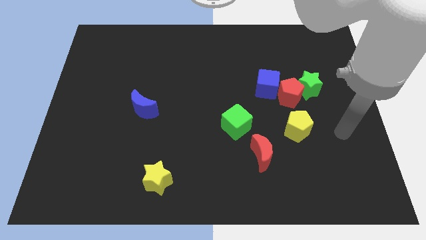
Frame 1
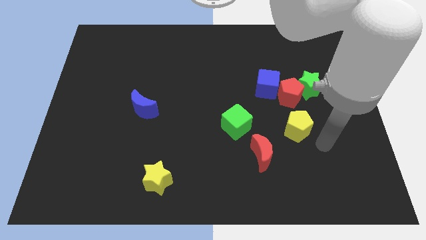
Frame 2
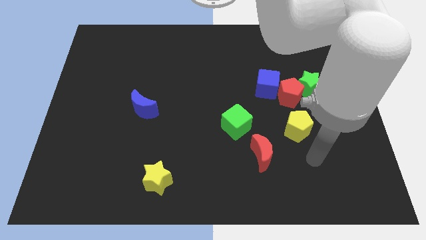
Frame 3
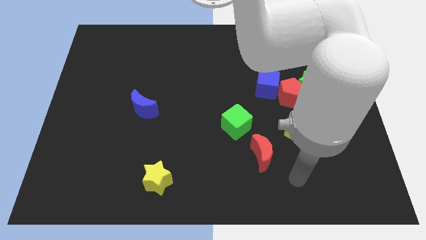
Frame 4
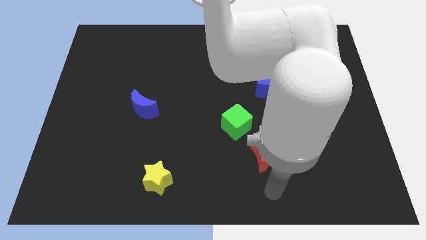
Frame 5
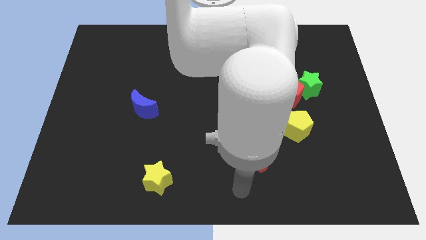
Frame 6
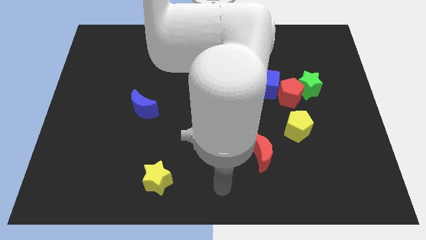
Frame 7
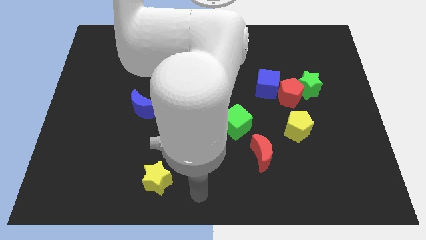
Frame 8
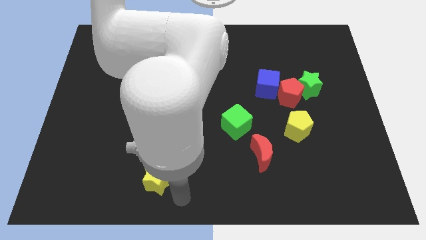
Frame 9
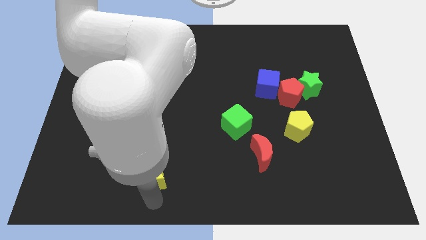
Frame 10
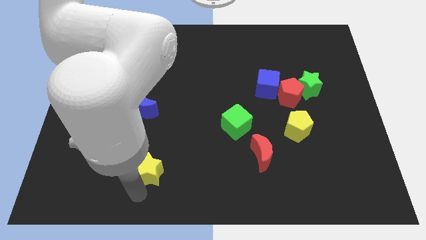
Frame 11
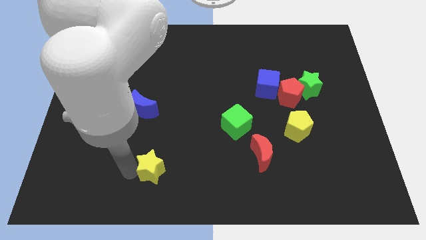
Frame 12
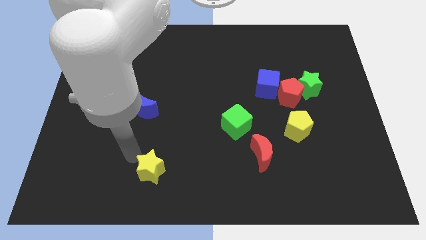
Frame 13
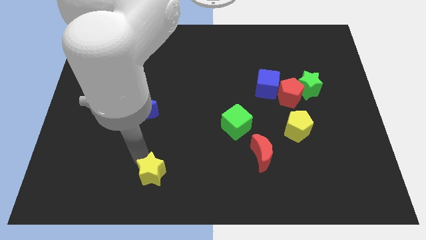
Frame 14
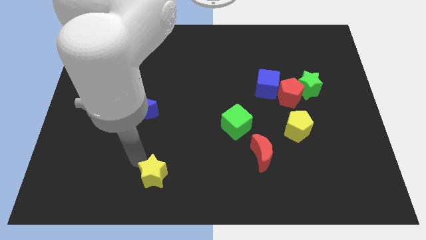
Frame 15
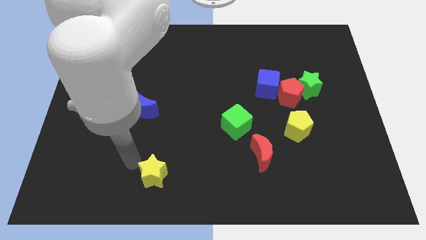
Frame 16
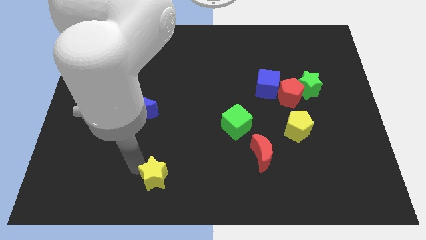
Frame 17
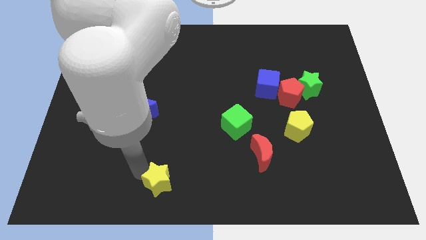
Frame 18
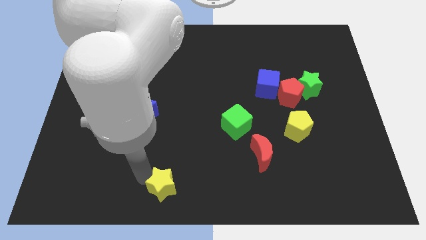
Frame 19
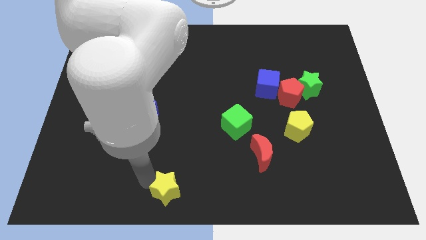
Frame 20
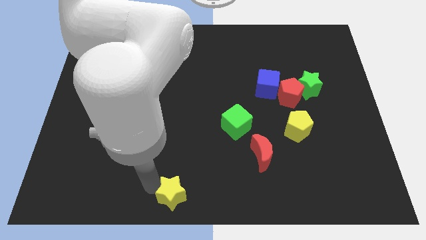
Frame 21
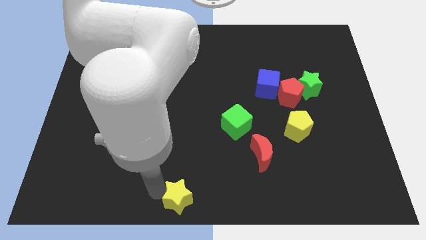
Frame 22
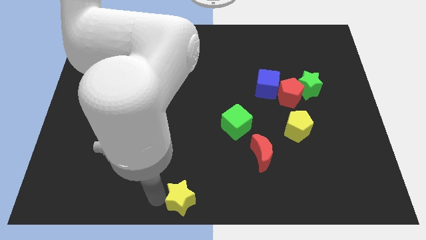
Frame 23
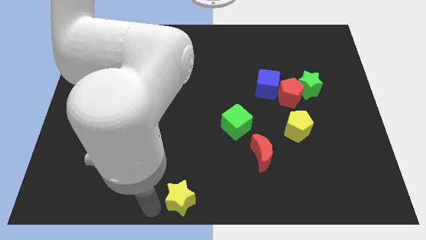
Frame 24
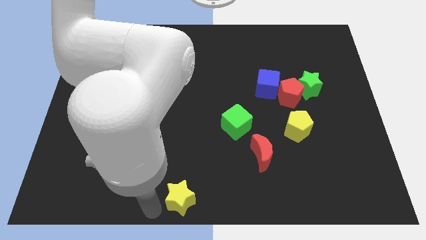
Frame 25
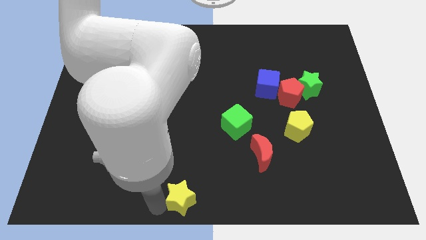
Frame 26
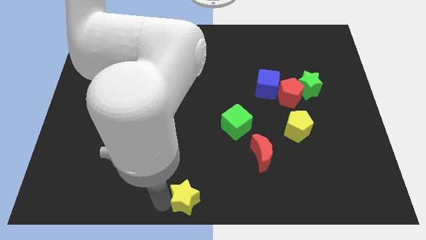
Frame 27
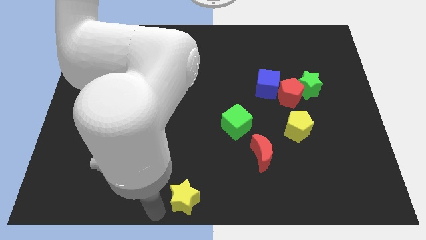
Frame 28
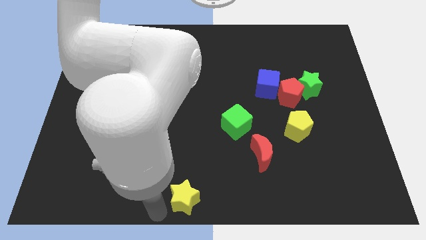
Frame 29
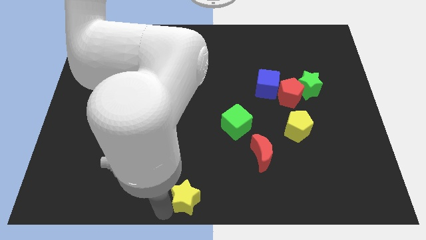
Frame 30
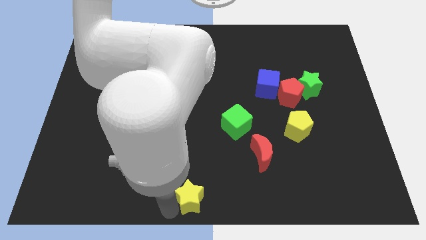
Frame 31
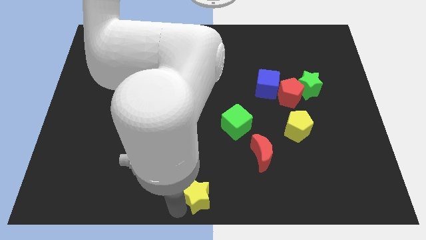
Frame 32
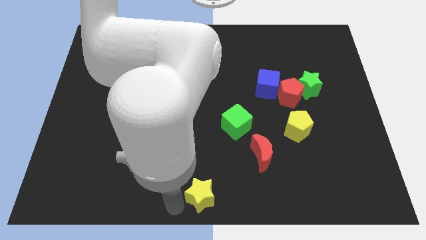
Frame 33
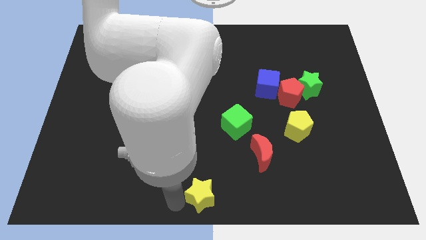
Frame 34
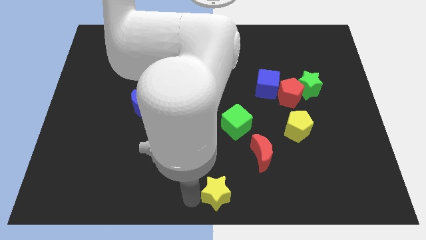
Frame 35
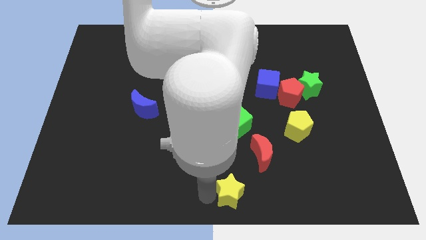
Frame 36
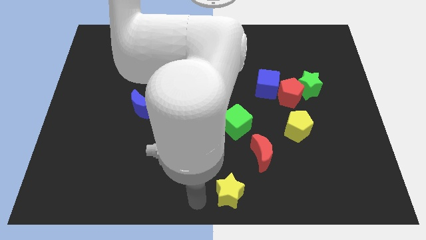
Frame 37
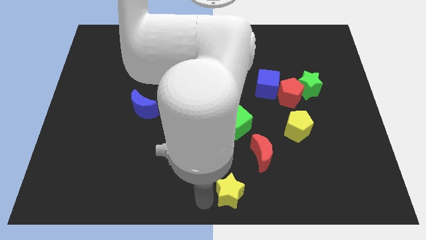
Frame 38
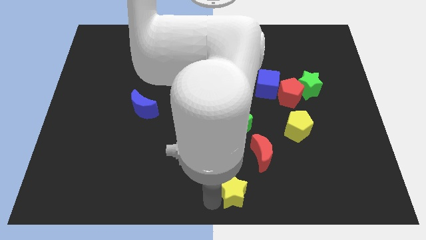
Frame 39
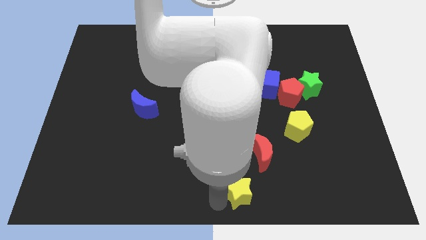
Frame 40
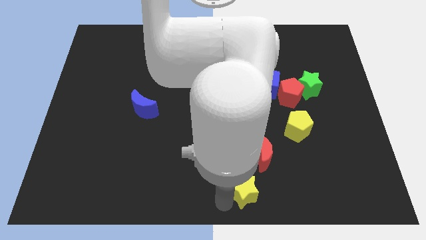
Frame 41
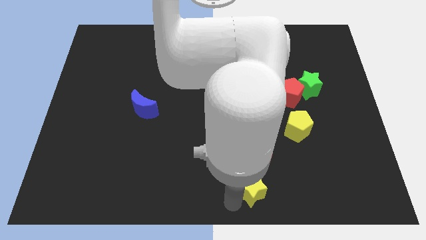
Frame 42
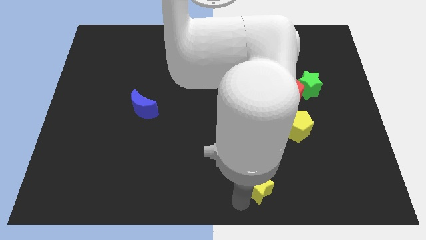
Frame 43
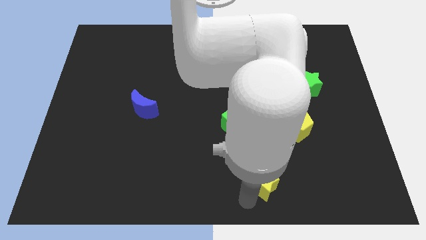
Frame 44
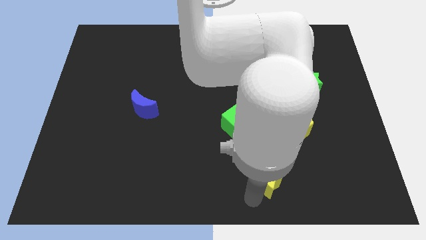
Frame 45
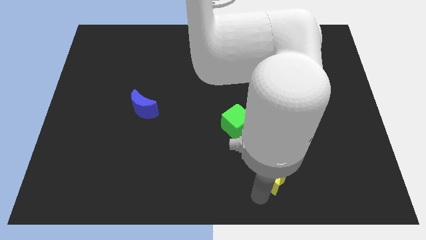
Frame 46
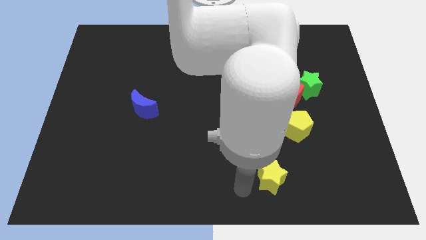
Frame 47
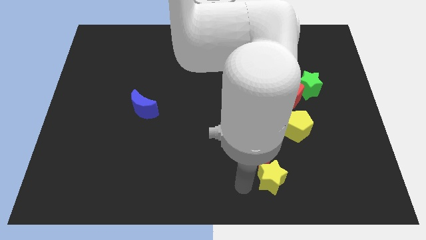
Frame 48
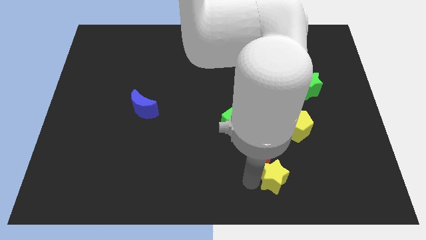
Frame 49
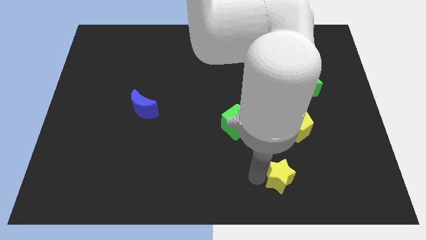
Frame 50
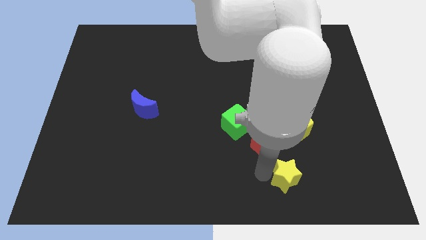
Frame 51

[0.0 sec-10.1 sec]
put the yellow star below the yellow pentagon

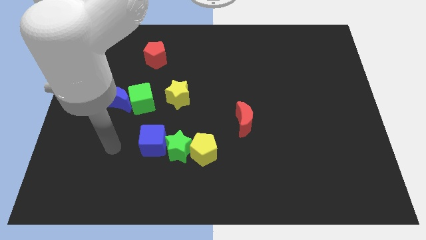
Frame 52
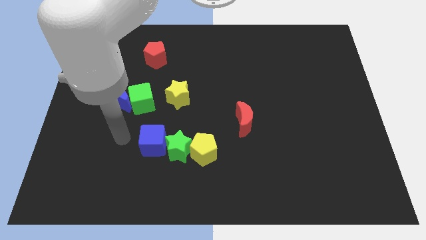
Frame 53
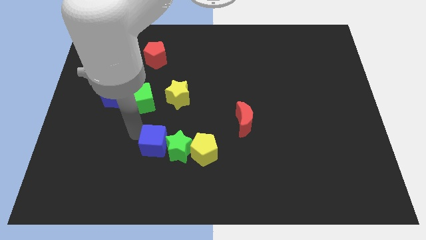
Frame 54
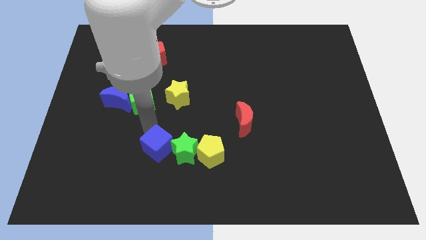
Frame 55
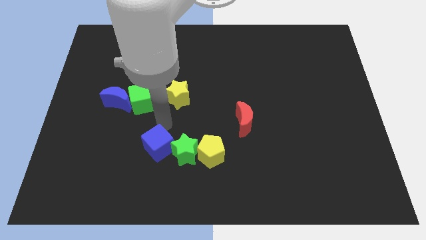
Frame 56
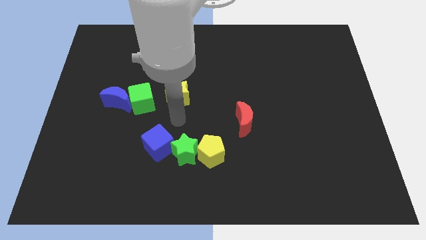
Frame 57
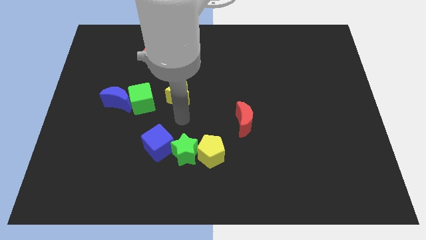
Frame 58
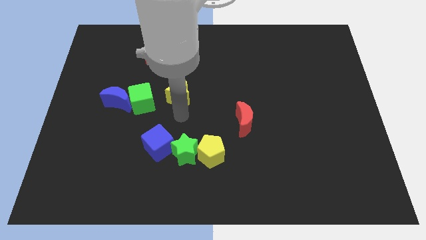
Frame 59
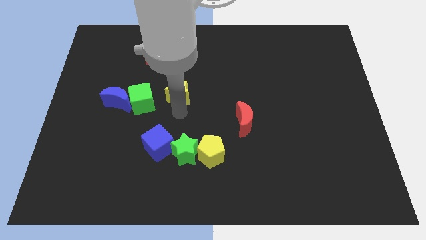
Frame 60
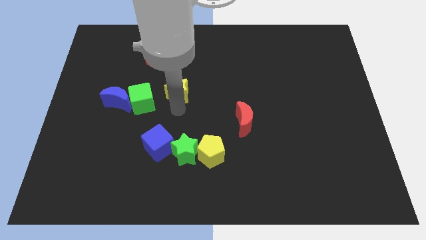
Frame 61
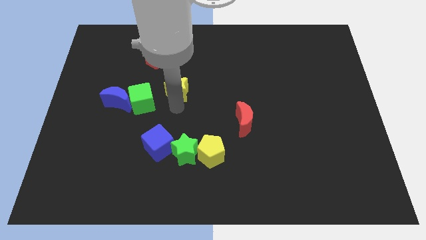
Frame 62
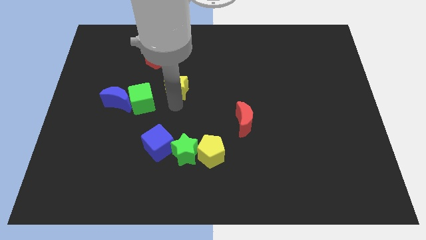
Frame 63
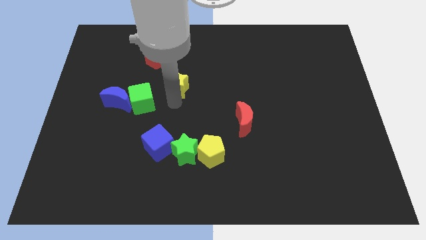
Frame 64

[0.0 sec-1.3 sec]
push the yellow star to the bottom right of the red pentagon
